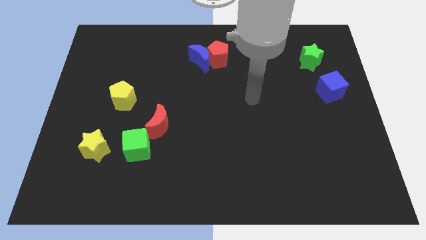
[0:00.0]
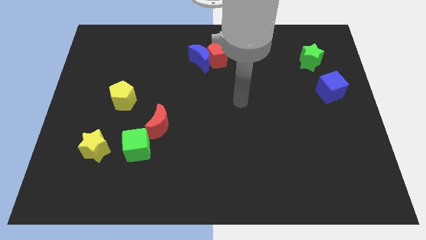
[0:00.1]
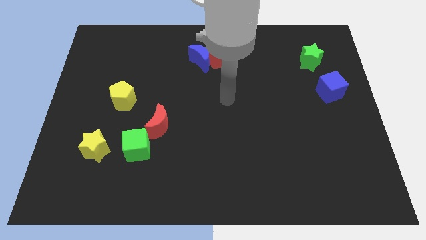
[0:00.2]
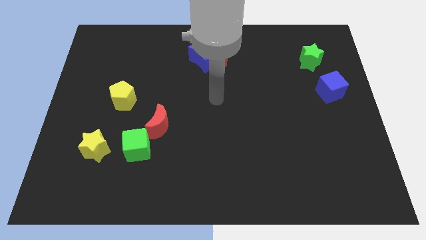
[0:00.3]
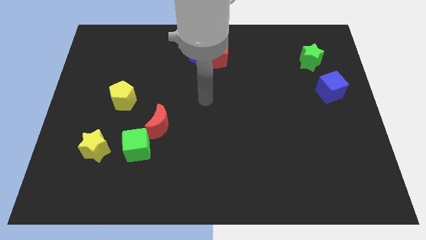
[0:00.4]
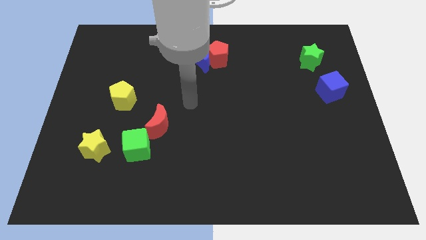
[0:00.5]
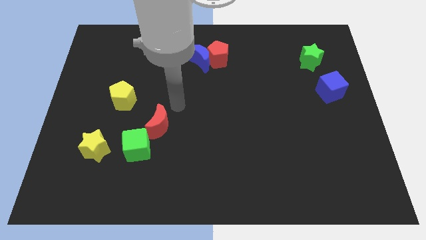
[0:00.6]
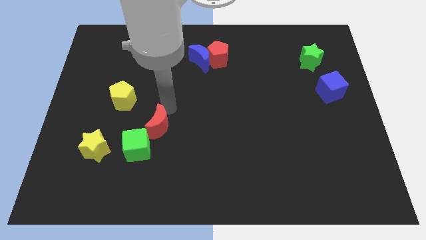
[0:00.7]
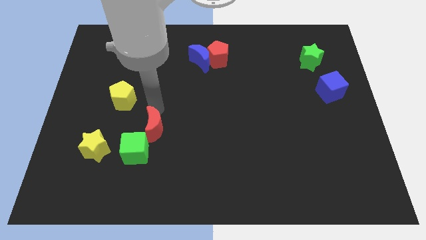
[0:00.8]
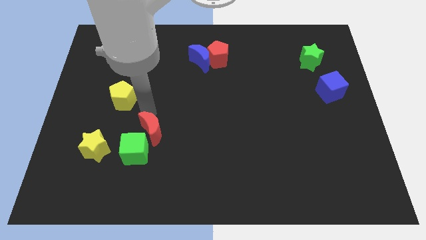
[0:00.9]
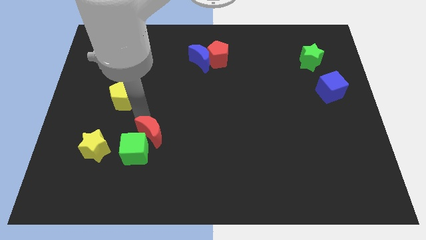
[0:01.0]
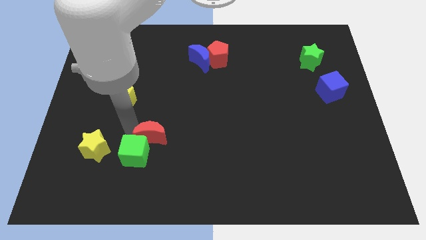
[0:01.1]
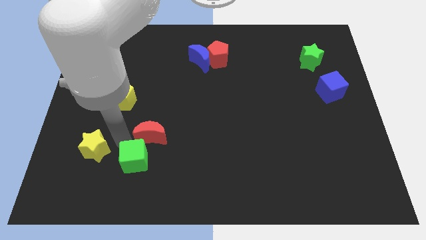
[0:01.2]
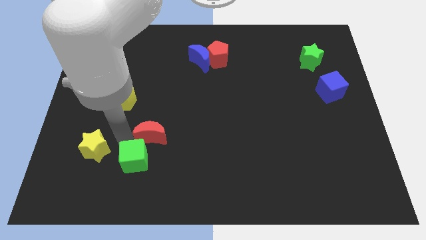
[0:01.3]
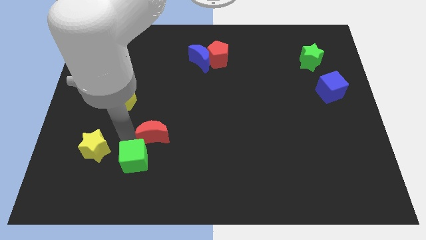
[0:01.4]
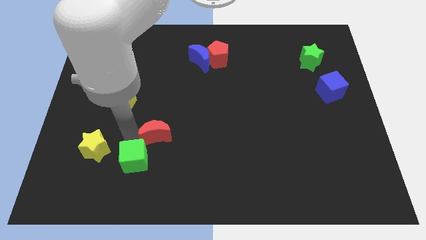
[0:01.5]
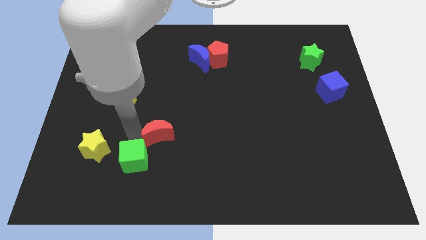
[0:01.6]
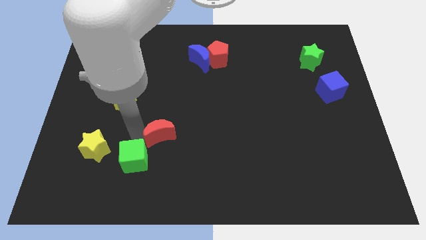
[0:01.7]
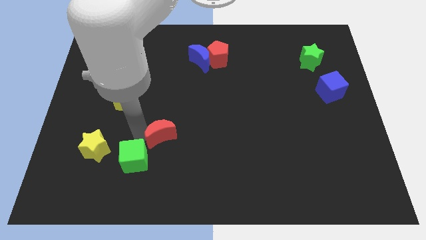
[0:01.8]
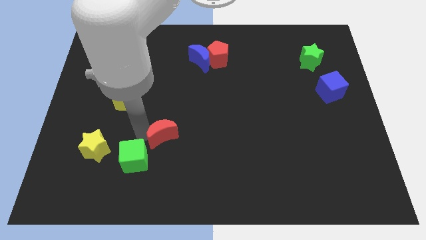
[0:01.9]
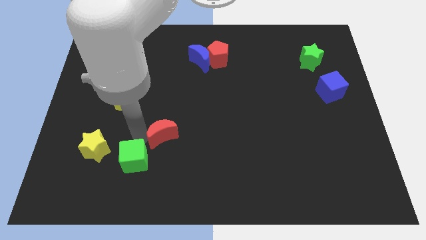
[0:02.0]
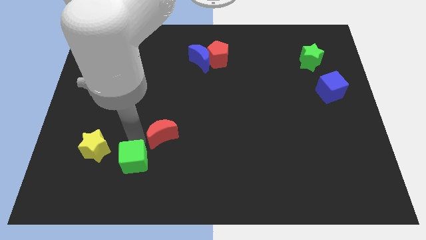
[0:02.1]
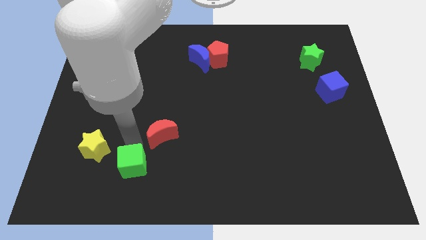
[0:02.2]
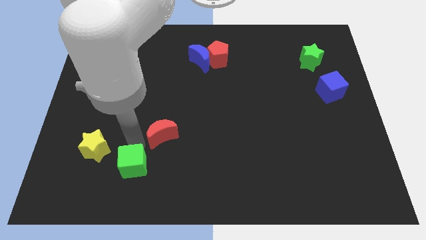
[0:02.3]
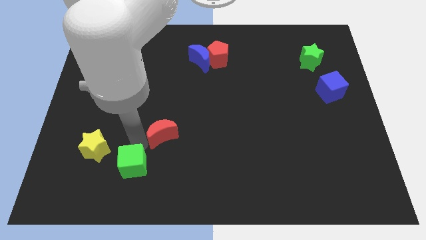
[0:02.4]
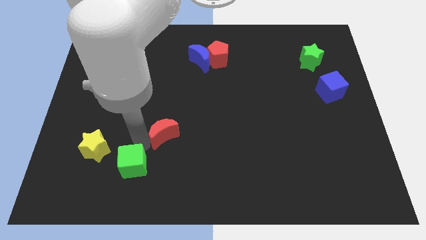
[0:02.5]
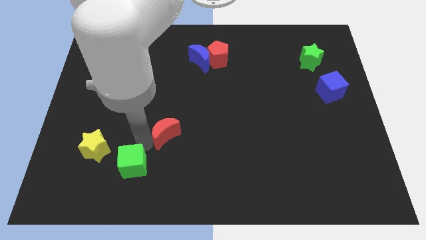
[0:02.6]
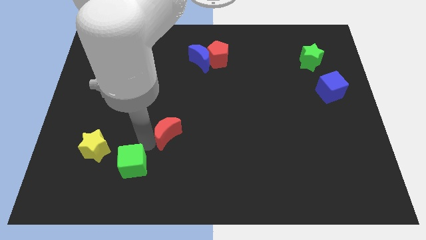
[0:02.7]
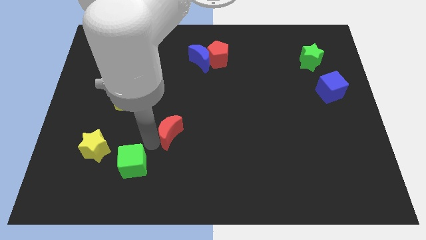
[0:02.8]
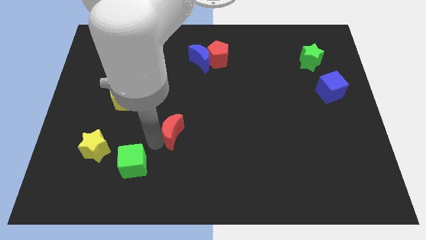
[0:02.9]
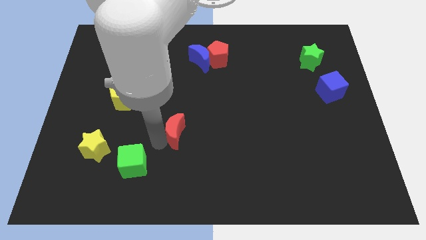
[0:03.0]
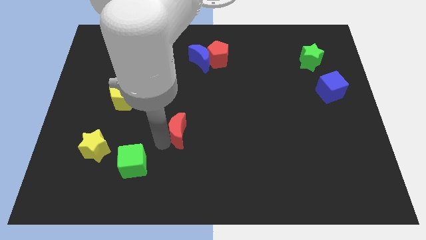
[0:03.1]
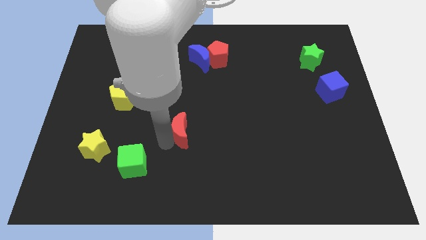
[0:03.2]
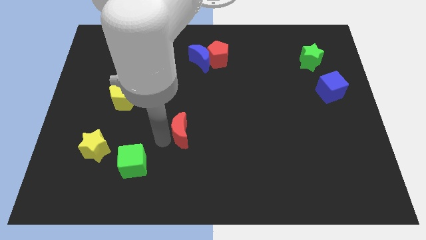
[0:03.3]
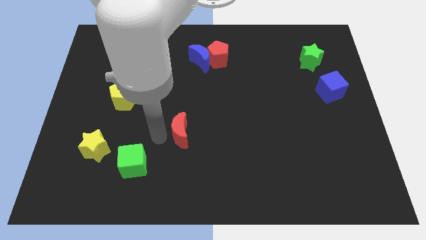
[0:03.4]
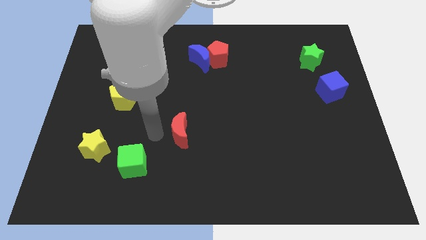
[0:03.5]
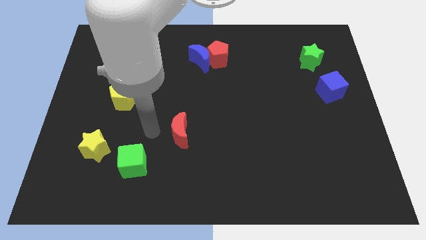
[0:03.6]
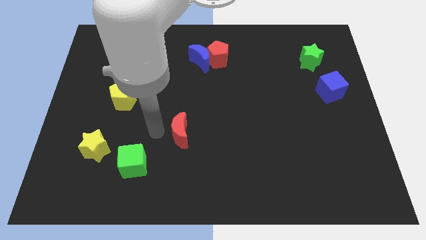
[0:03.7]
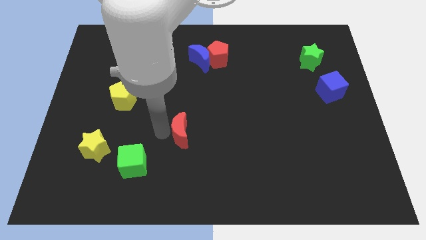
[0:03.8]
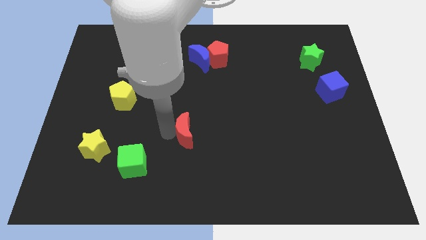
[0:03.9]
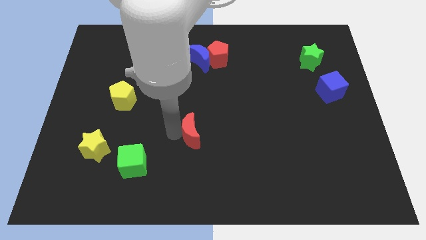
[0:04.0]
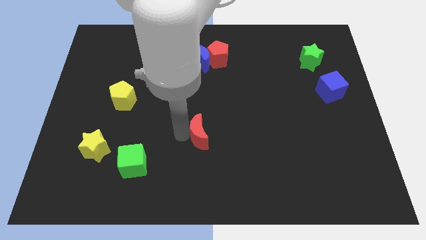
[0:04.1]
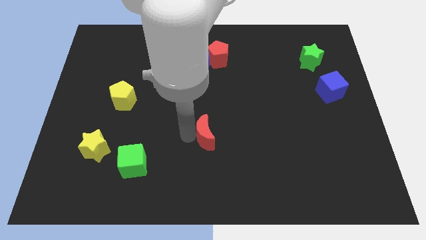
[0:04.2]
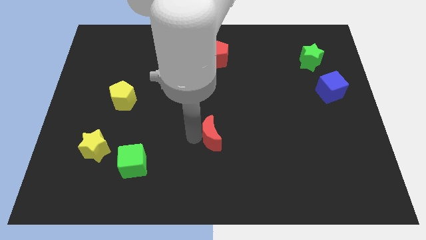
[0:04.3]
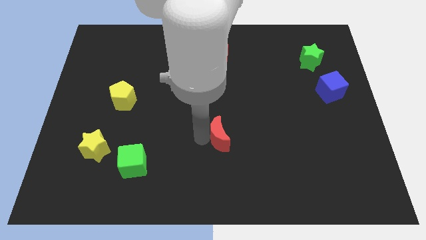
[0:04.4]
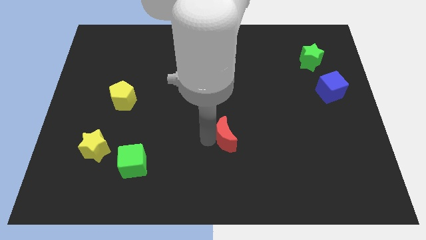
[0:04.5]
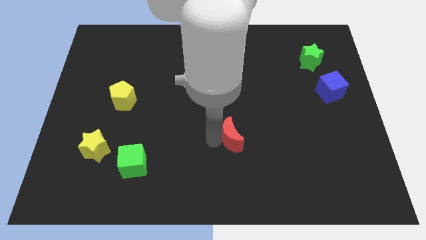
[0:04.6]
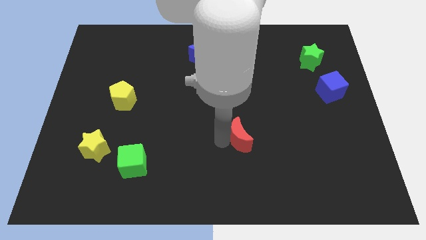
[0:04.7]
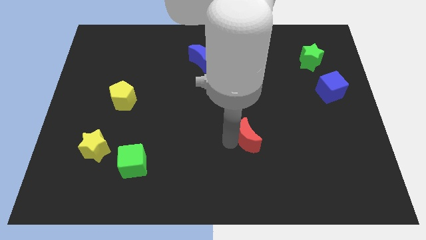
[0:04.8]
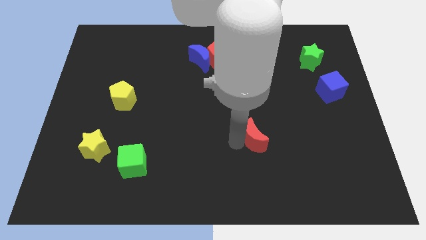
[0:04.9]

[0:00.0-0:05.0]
move the red moon right

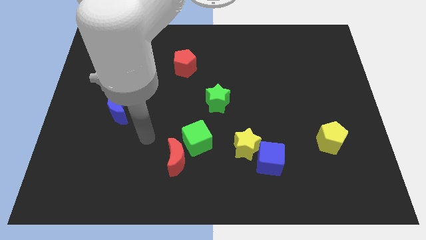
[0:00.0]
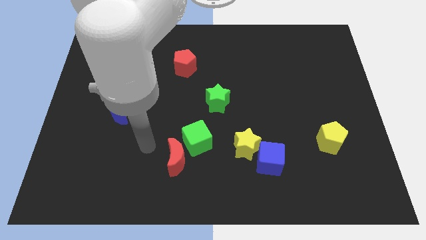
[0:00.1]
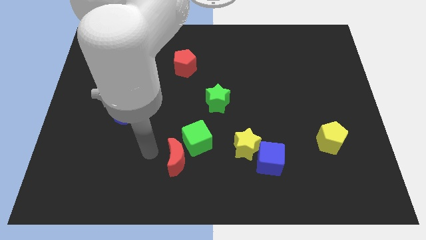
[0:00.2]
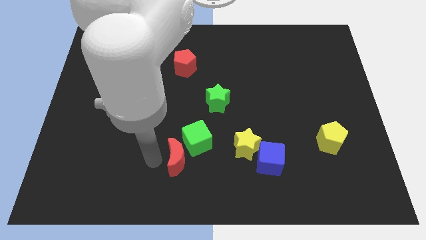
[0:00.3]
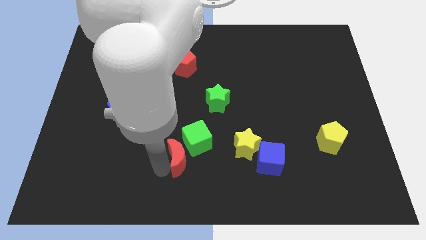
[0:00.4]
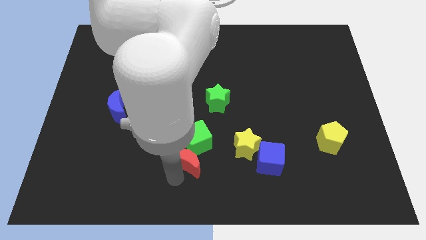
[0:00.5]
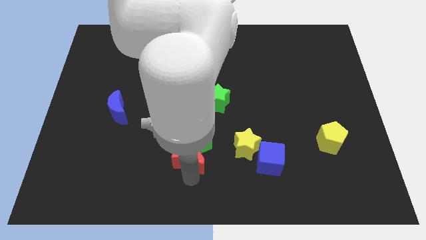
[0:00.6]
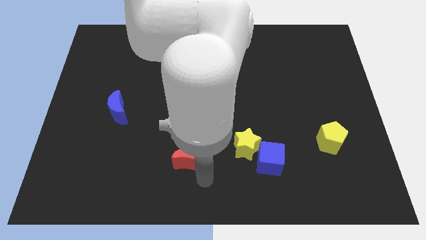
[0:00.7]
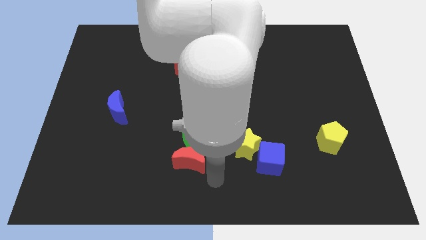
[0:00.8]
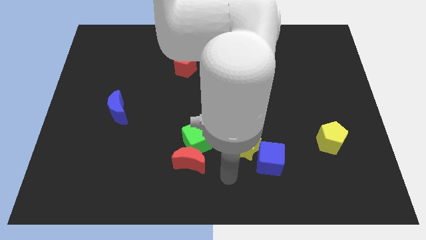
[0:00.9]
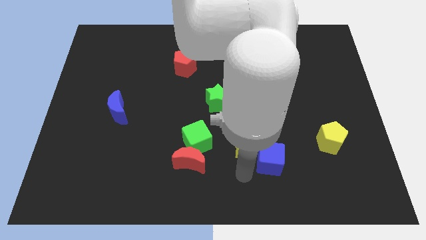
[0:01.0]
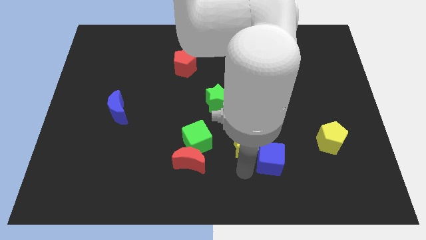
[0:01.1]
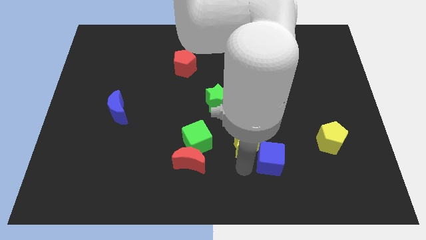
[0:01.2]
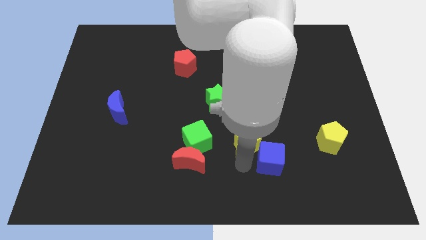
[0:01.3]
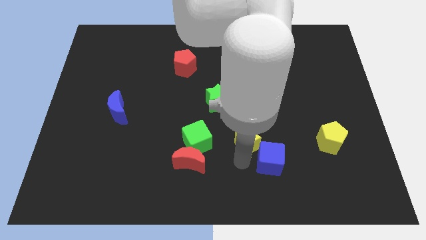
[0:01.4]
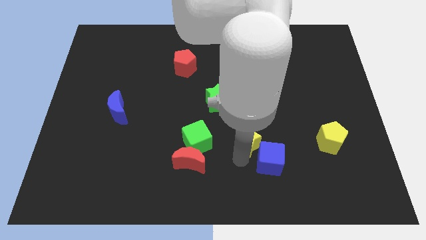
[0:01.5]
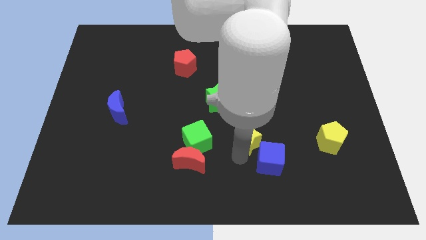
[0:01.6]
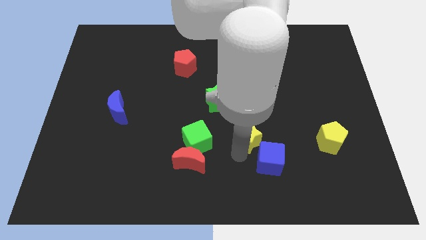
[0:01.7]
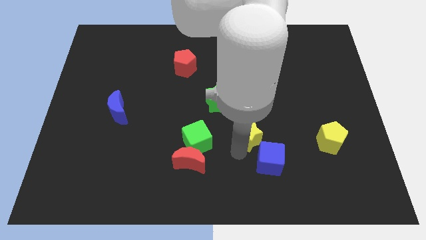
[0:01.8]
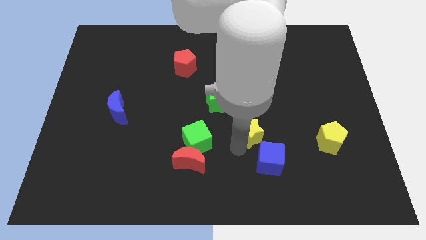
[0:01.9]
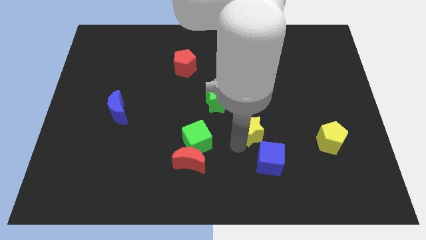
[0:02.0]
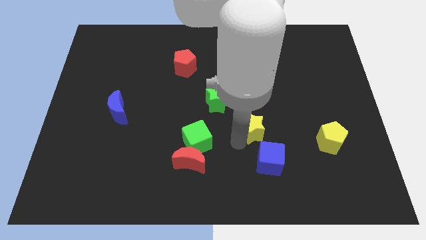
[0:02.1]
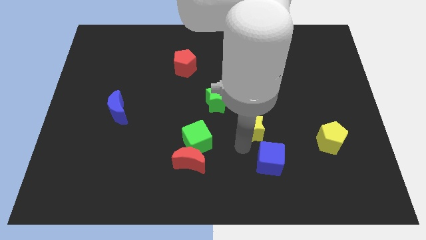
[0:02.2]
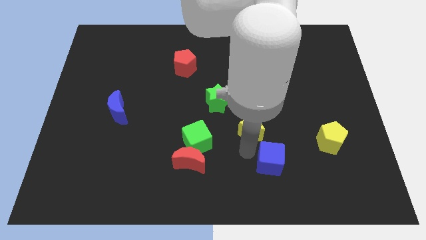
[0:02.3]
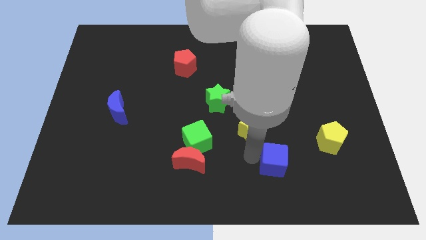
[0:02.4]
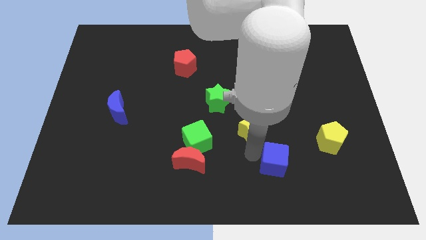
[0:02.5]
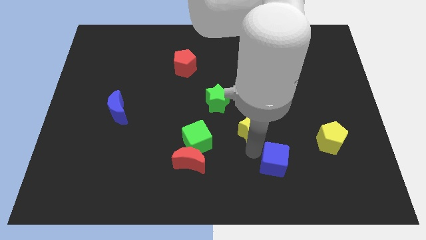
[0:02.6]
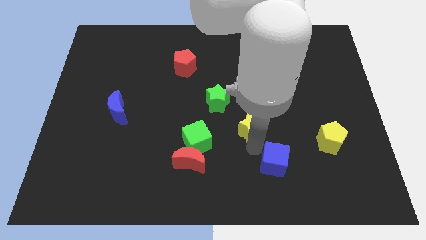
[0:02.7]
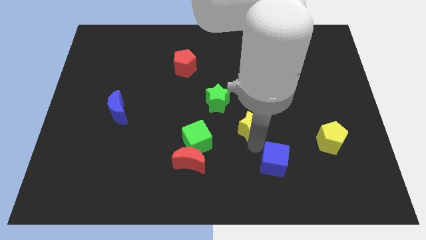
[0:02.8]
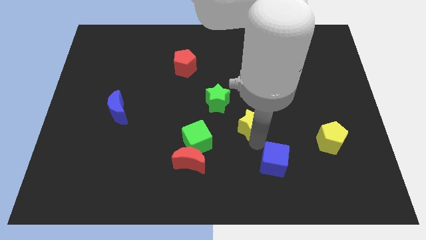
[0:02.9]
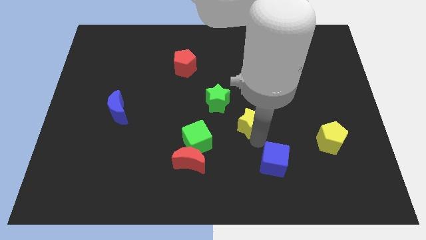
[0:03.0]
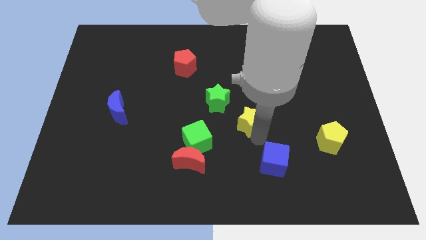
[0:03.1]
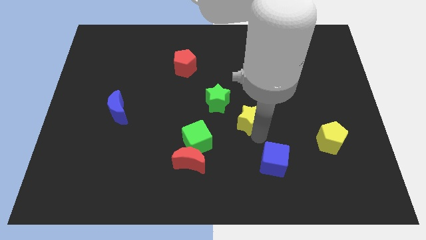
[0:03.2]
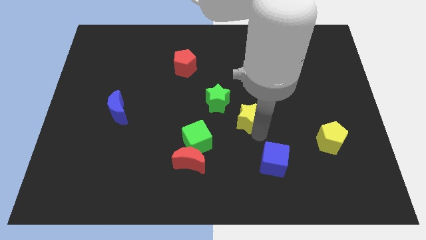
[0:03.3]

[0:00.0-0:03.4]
move the yellow star a little bit upwards
